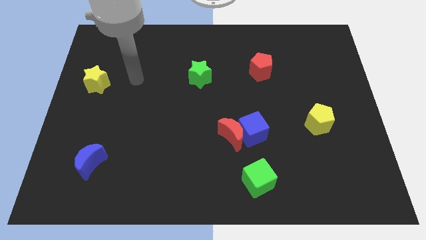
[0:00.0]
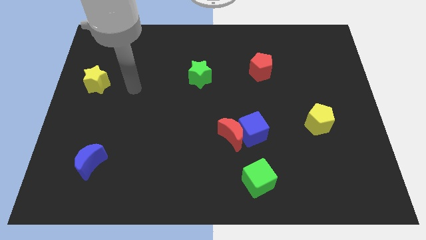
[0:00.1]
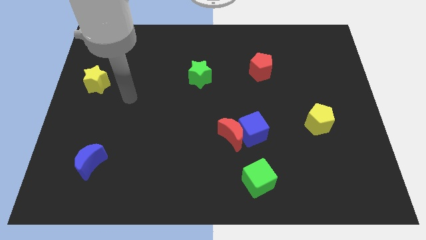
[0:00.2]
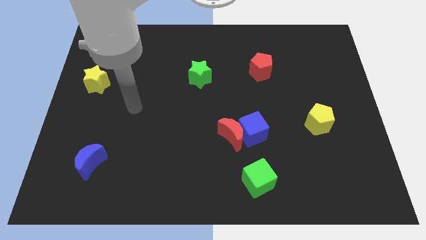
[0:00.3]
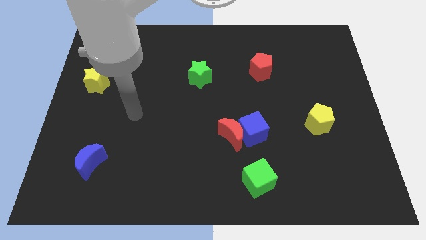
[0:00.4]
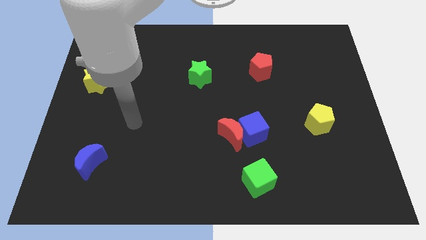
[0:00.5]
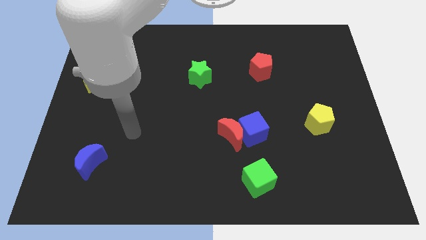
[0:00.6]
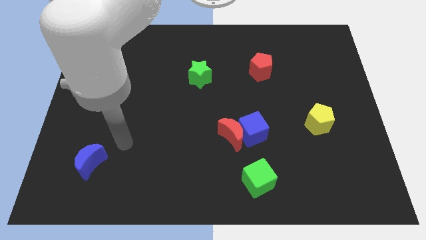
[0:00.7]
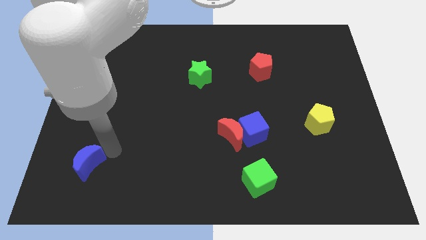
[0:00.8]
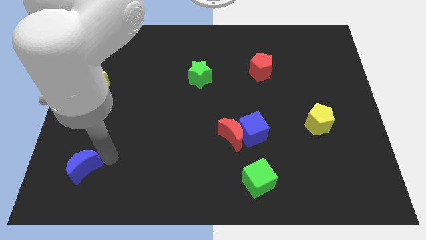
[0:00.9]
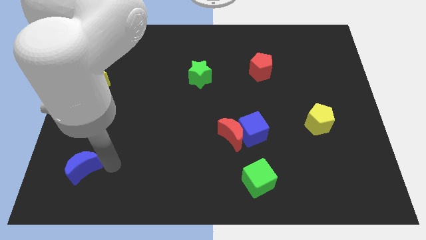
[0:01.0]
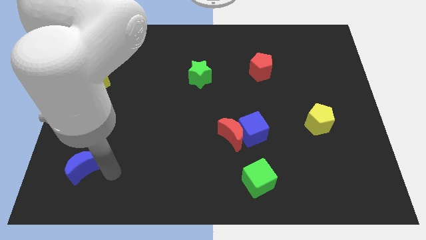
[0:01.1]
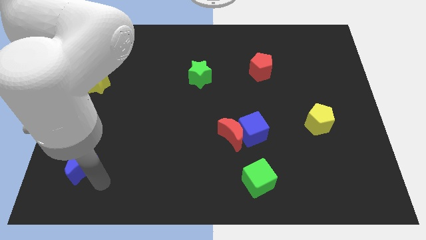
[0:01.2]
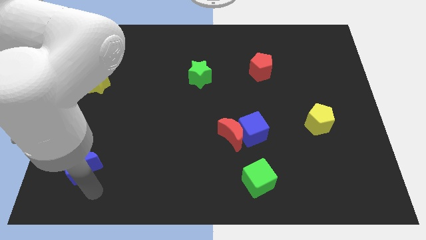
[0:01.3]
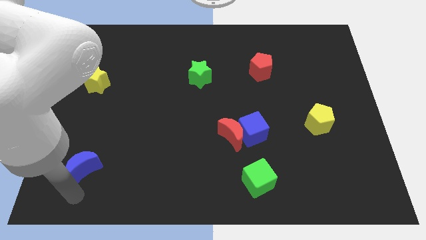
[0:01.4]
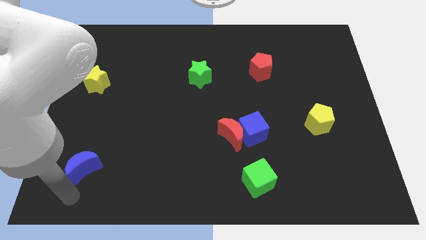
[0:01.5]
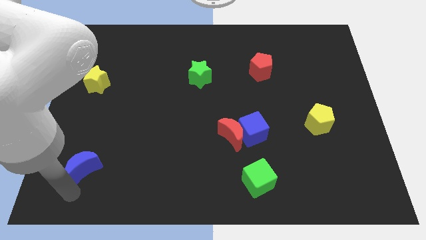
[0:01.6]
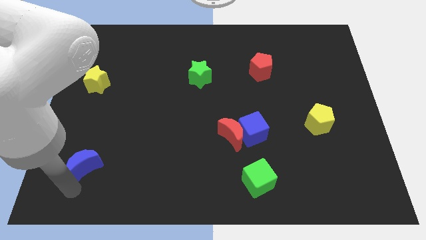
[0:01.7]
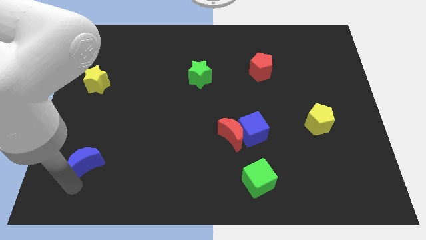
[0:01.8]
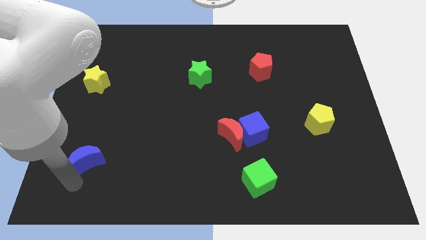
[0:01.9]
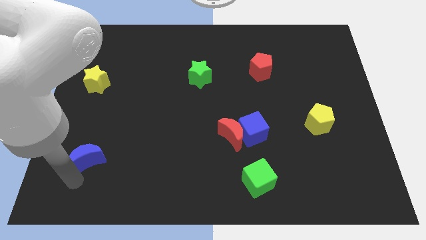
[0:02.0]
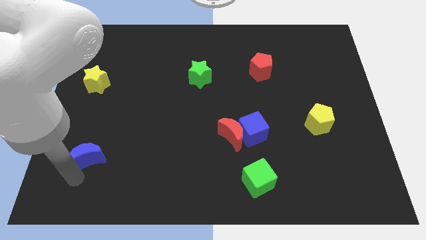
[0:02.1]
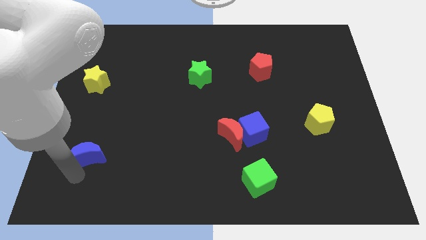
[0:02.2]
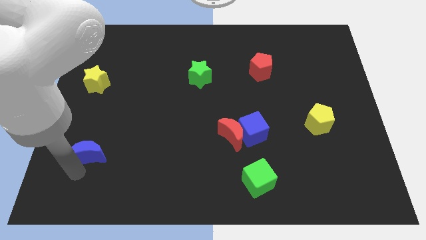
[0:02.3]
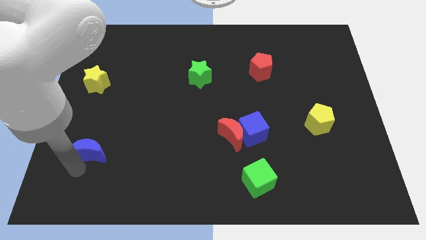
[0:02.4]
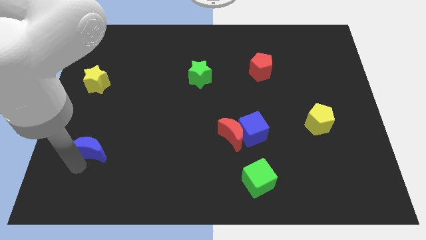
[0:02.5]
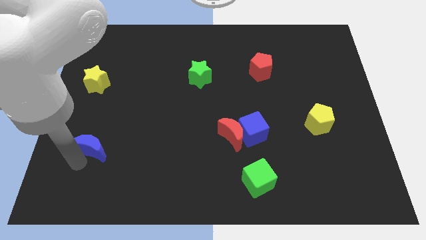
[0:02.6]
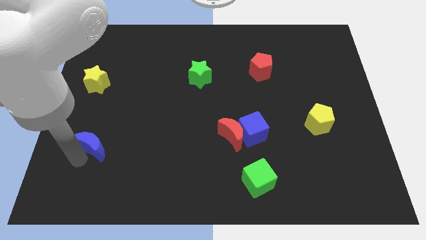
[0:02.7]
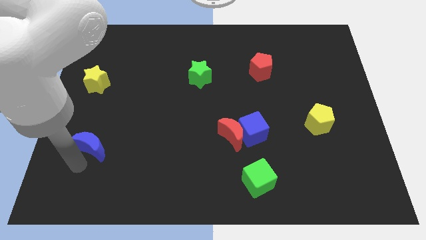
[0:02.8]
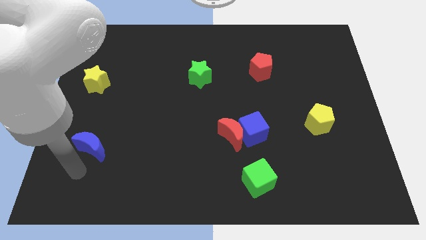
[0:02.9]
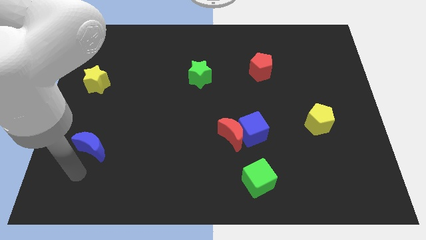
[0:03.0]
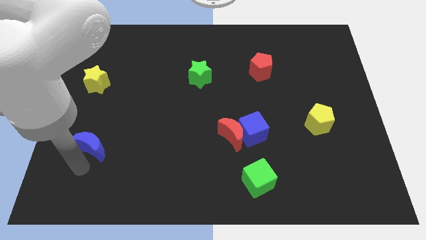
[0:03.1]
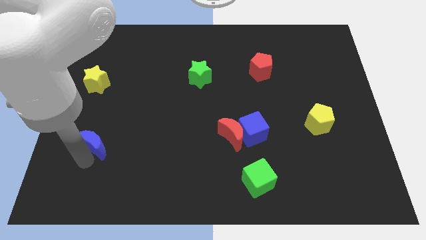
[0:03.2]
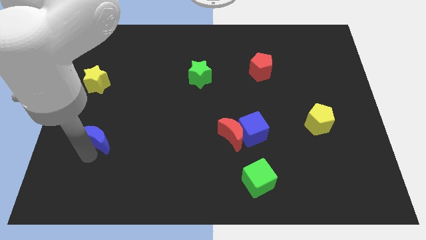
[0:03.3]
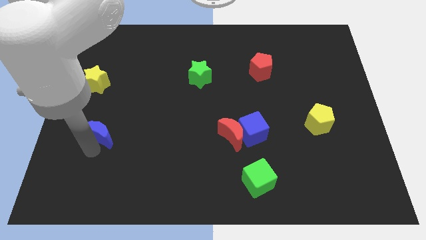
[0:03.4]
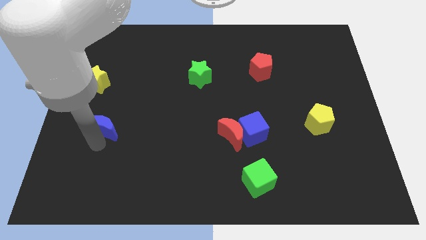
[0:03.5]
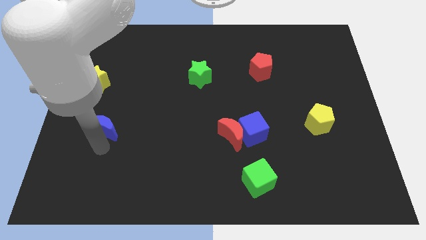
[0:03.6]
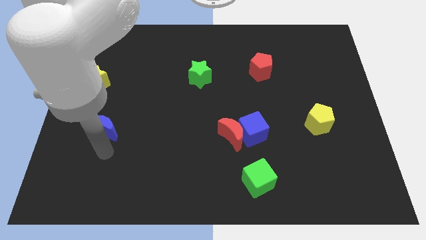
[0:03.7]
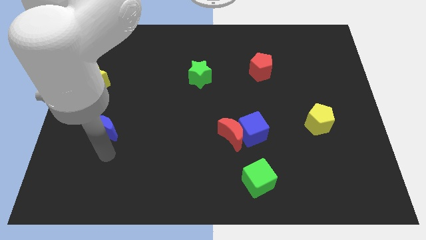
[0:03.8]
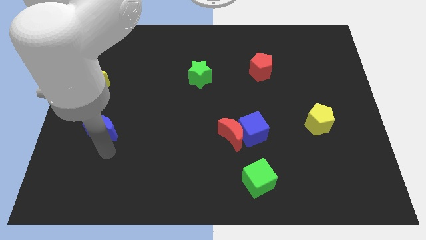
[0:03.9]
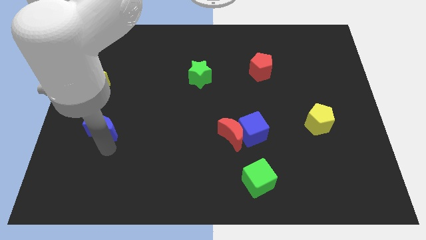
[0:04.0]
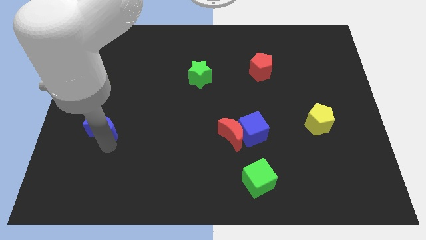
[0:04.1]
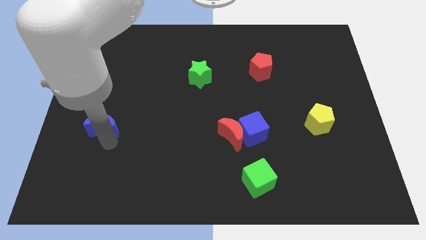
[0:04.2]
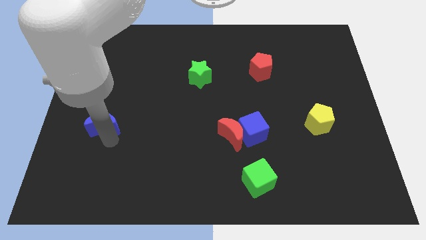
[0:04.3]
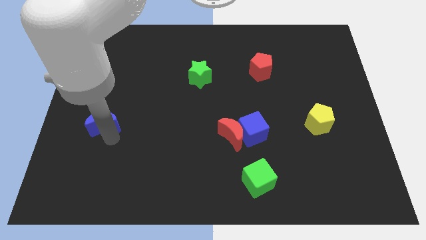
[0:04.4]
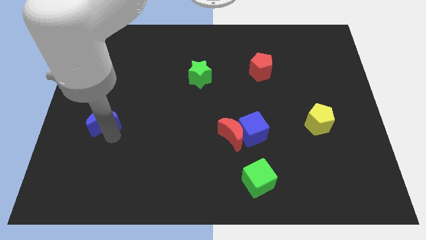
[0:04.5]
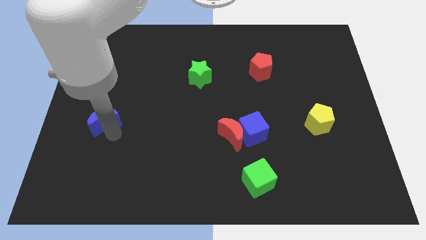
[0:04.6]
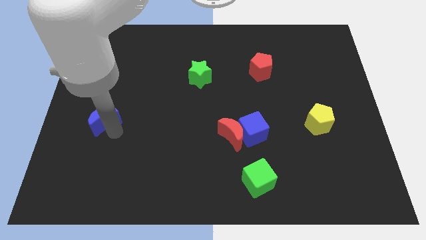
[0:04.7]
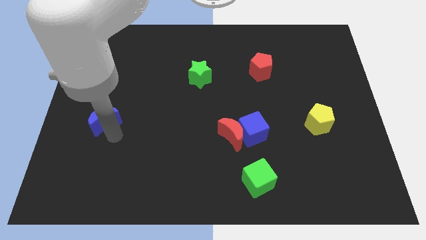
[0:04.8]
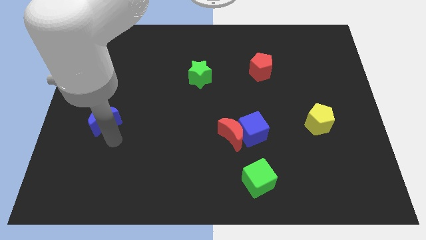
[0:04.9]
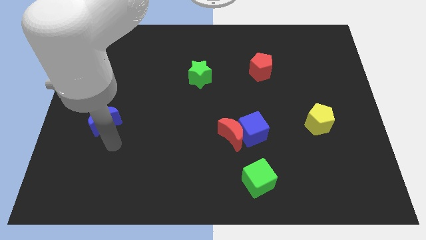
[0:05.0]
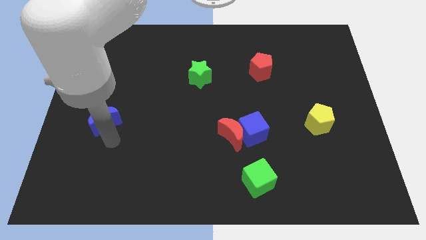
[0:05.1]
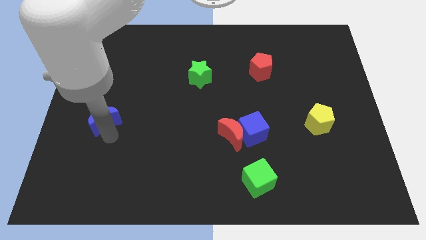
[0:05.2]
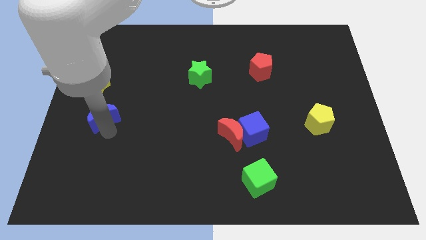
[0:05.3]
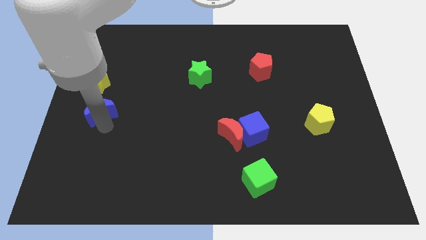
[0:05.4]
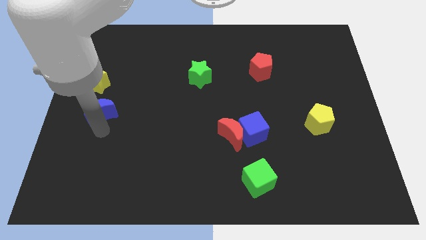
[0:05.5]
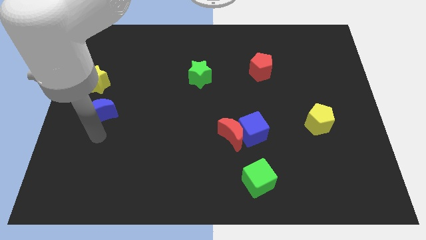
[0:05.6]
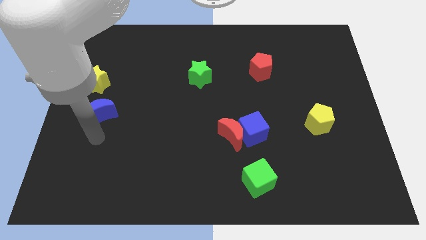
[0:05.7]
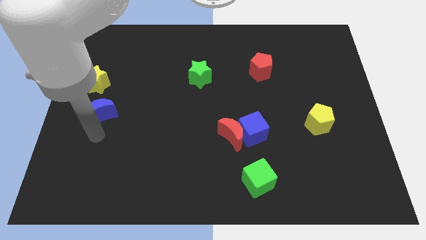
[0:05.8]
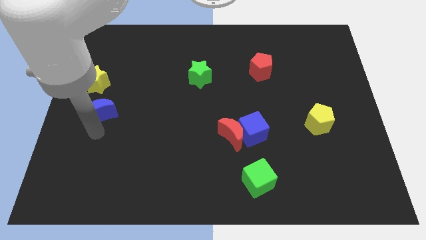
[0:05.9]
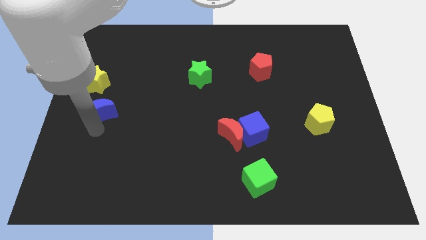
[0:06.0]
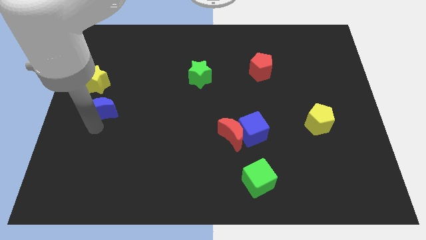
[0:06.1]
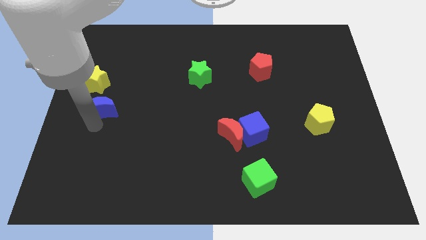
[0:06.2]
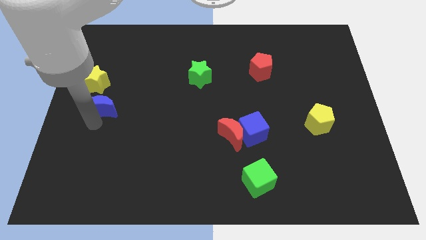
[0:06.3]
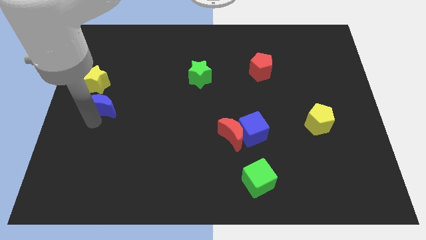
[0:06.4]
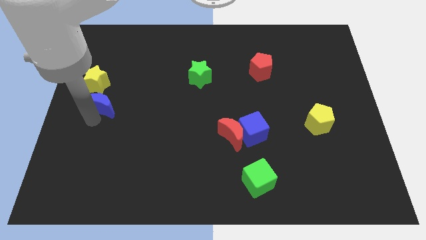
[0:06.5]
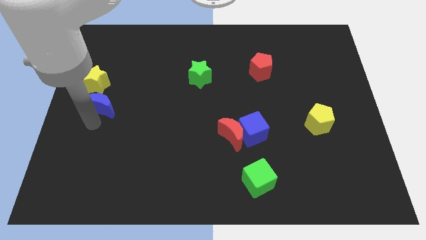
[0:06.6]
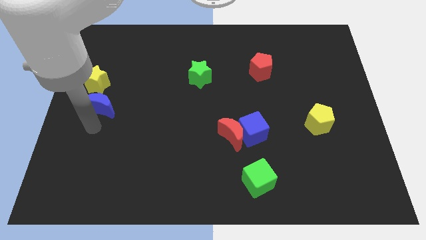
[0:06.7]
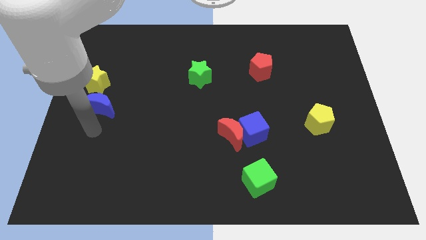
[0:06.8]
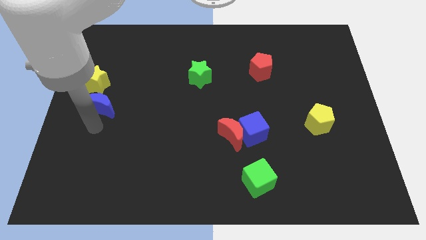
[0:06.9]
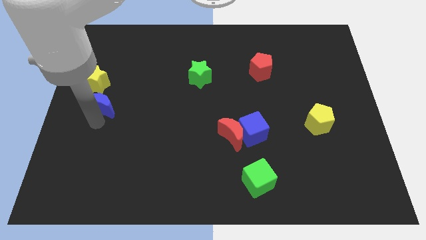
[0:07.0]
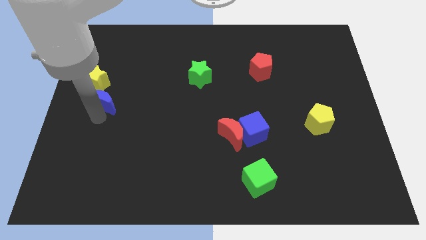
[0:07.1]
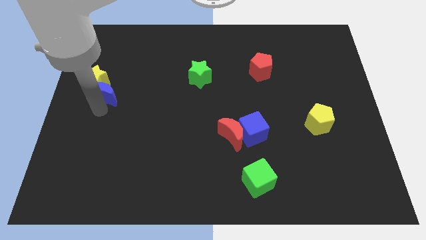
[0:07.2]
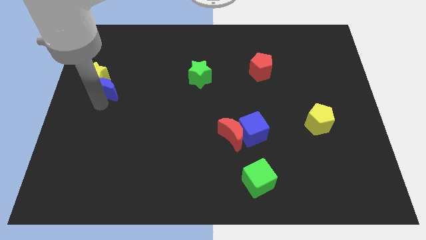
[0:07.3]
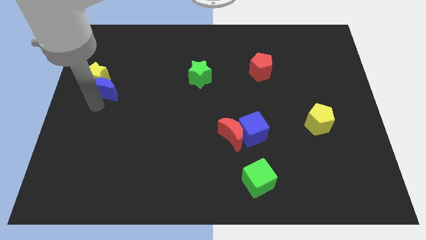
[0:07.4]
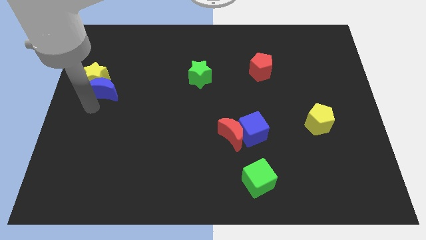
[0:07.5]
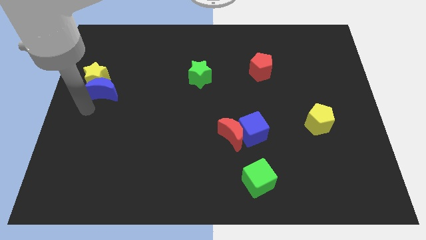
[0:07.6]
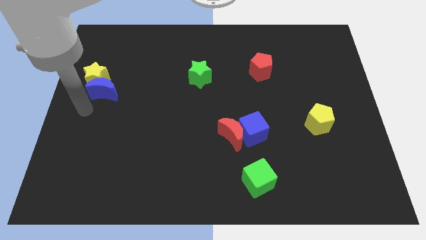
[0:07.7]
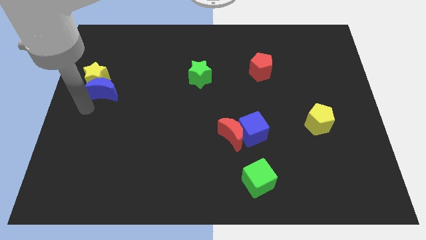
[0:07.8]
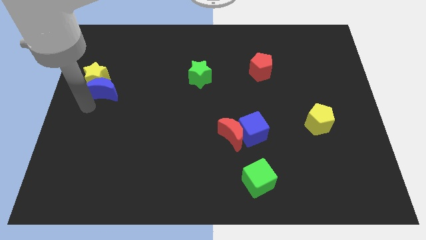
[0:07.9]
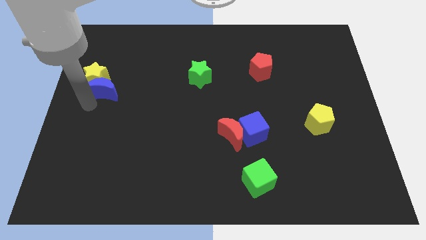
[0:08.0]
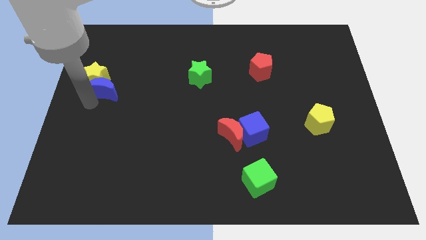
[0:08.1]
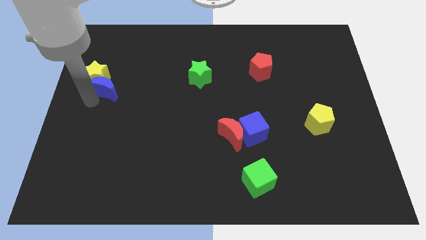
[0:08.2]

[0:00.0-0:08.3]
move the blue moon up
